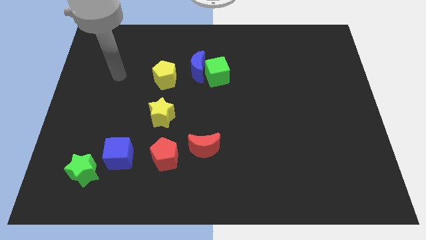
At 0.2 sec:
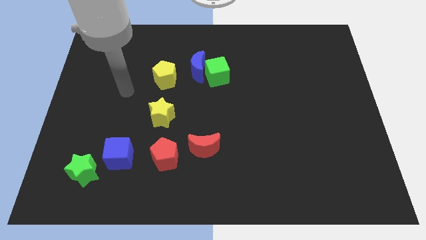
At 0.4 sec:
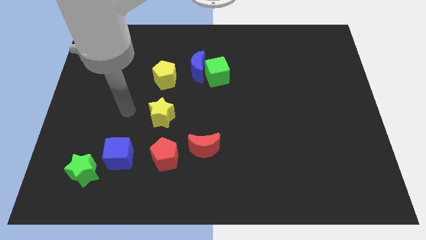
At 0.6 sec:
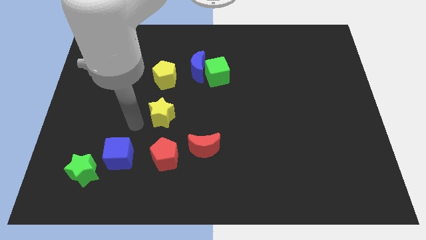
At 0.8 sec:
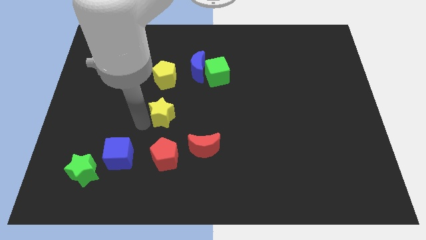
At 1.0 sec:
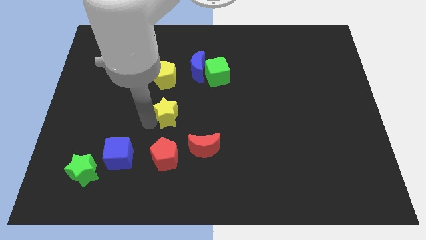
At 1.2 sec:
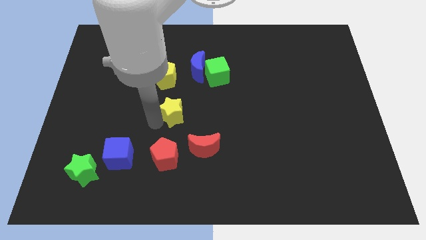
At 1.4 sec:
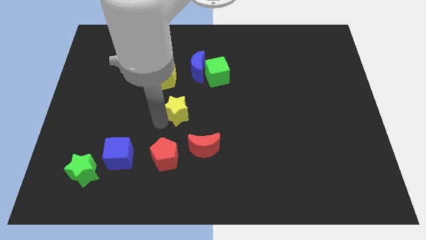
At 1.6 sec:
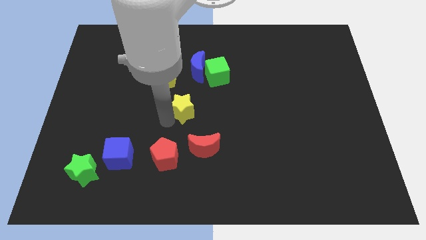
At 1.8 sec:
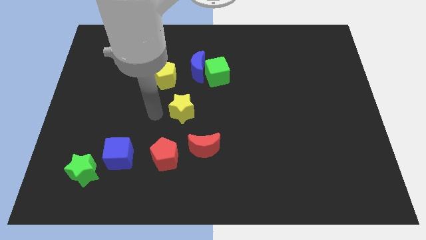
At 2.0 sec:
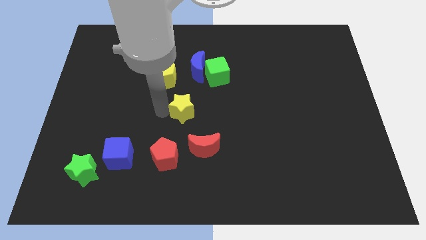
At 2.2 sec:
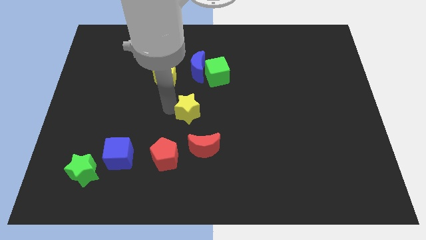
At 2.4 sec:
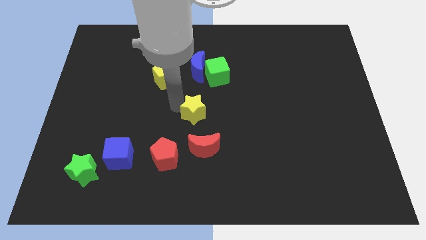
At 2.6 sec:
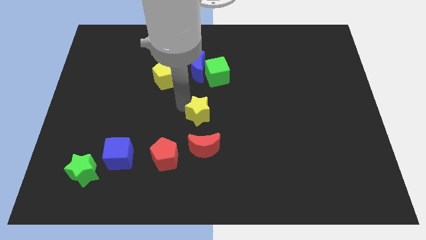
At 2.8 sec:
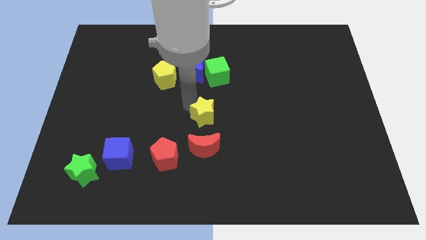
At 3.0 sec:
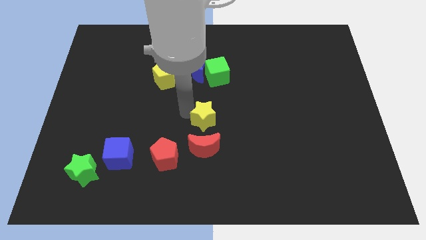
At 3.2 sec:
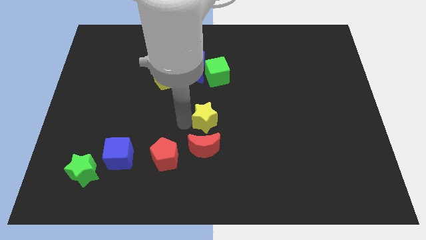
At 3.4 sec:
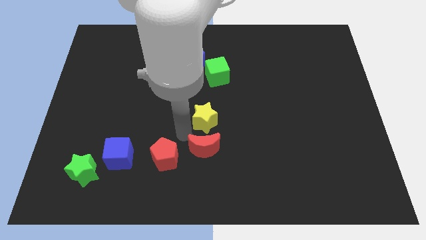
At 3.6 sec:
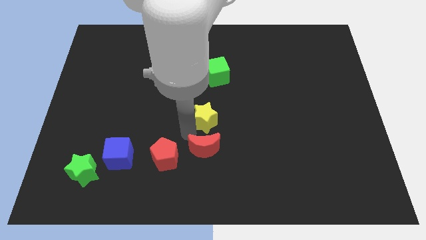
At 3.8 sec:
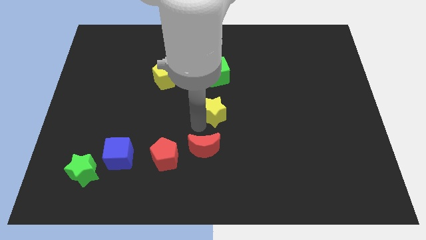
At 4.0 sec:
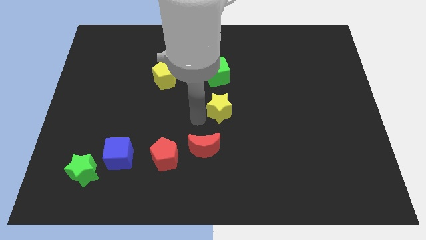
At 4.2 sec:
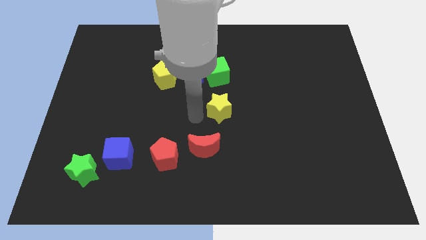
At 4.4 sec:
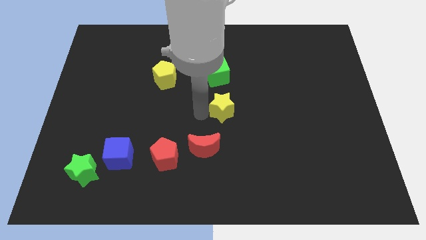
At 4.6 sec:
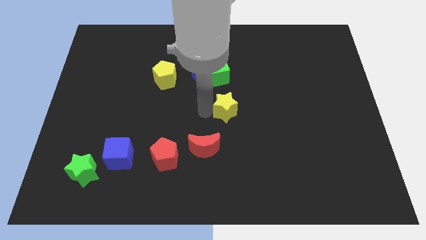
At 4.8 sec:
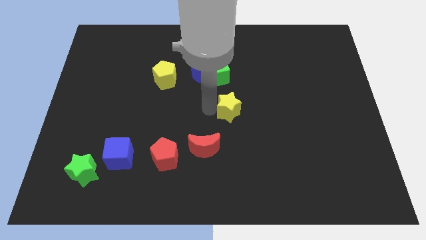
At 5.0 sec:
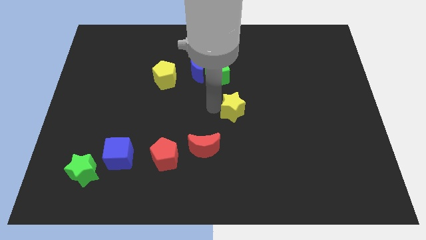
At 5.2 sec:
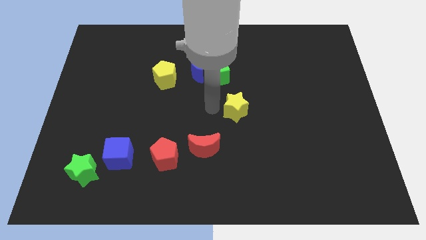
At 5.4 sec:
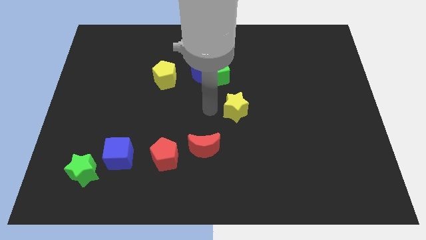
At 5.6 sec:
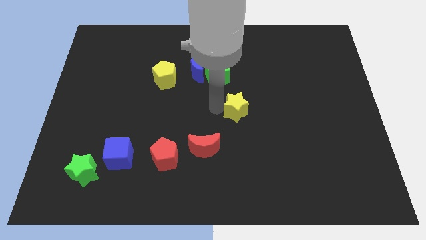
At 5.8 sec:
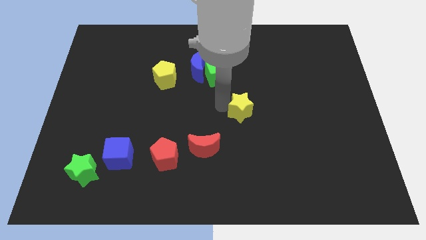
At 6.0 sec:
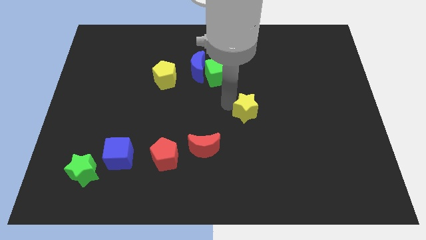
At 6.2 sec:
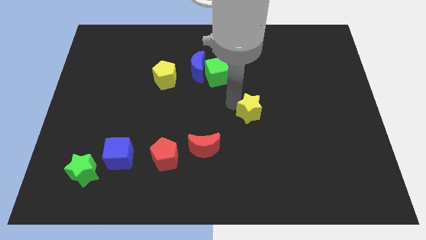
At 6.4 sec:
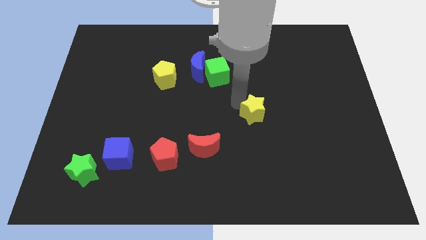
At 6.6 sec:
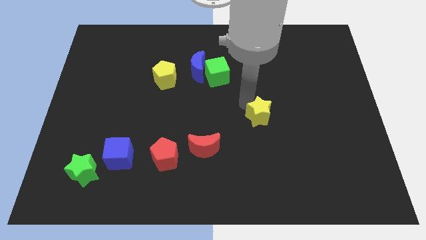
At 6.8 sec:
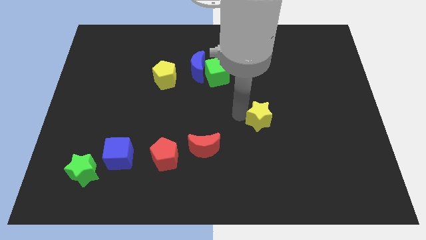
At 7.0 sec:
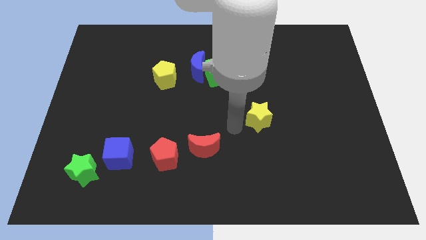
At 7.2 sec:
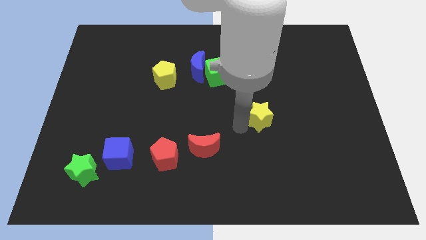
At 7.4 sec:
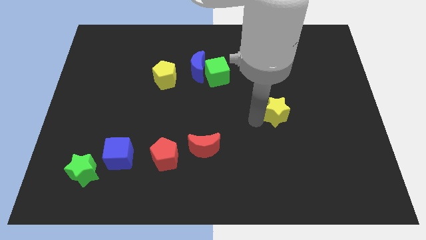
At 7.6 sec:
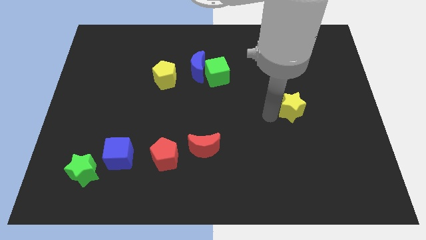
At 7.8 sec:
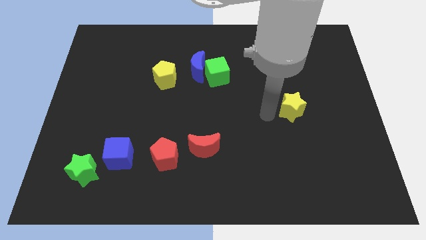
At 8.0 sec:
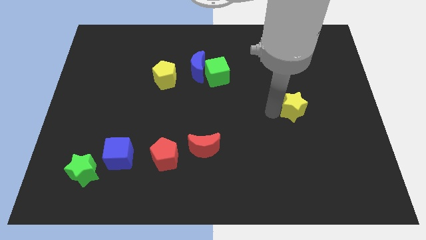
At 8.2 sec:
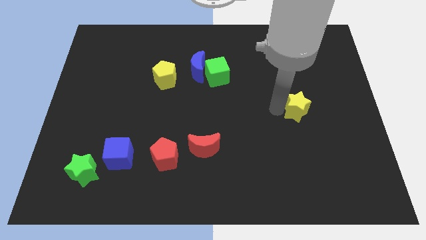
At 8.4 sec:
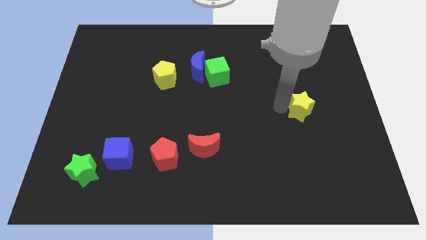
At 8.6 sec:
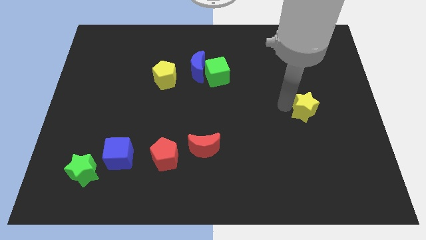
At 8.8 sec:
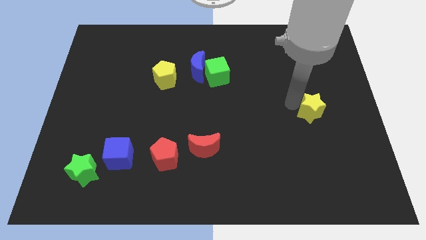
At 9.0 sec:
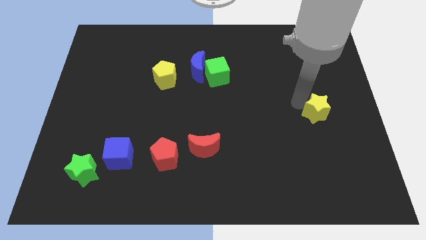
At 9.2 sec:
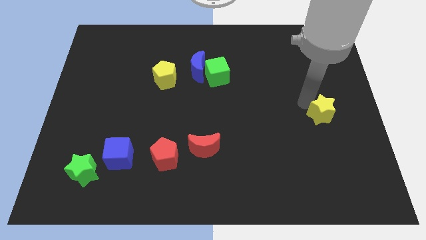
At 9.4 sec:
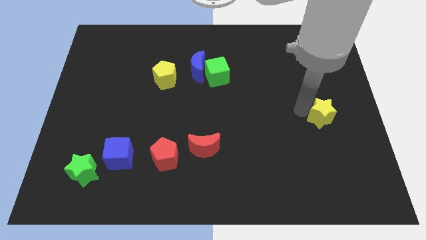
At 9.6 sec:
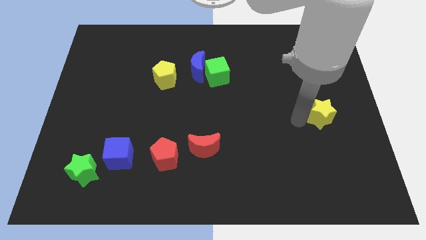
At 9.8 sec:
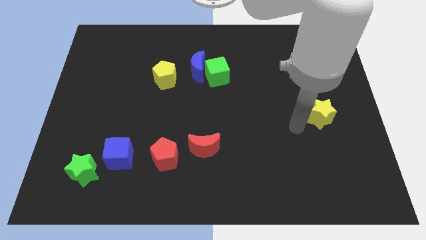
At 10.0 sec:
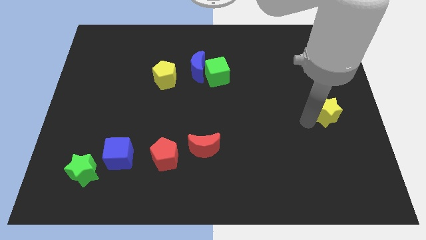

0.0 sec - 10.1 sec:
put the yellow star to the right side of the board

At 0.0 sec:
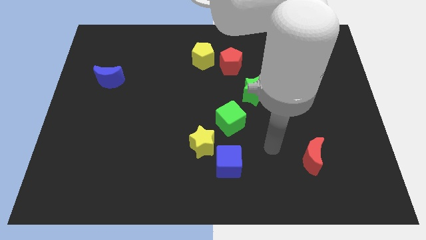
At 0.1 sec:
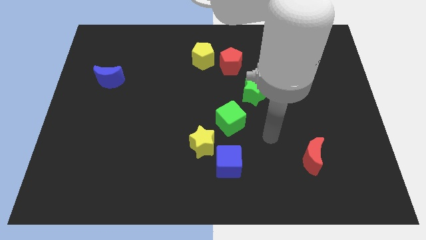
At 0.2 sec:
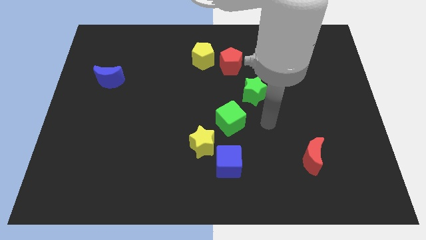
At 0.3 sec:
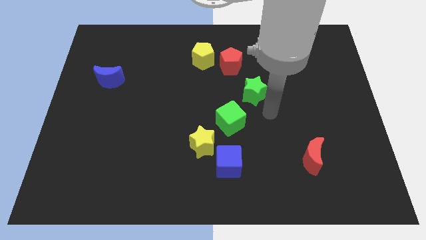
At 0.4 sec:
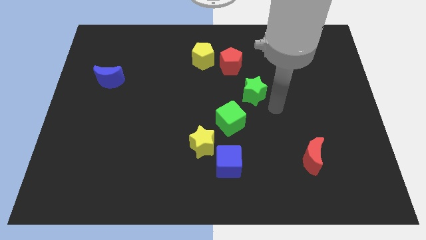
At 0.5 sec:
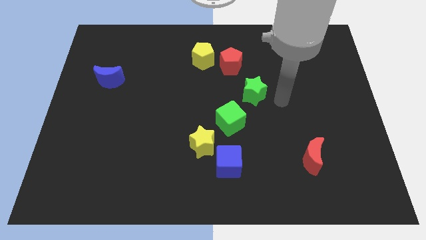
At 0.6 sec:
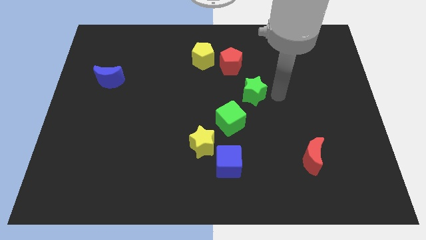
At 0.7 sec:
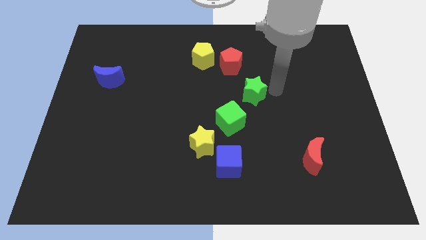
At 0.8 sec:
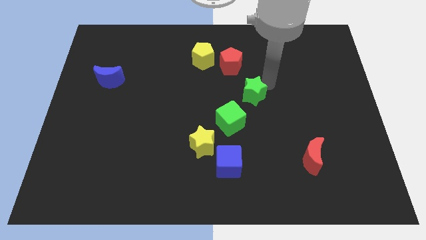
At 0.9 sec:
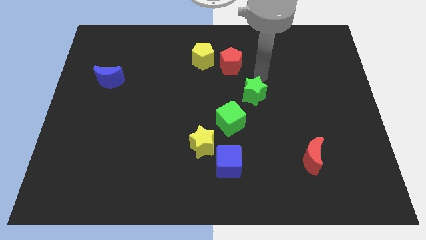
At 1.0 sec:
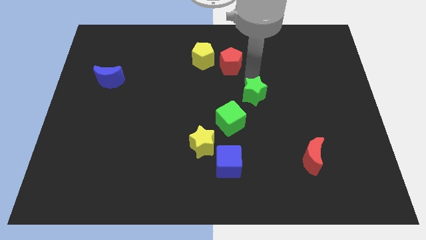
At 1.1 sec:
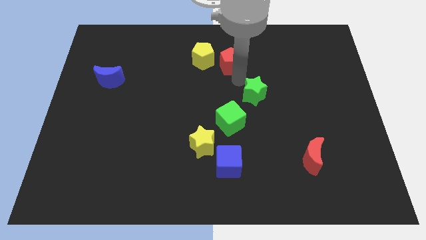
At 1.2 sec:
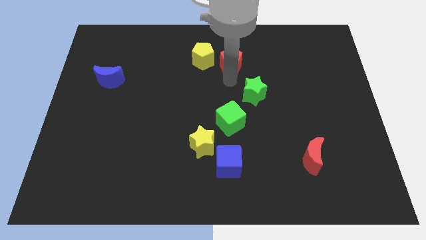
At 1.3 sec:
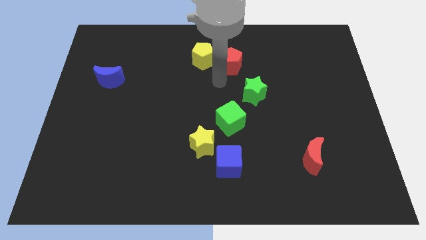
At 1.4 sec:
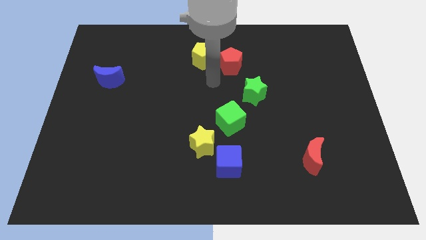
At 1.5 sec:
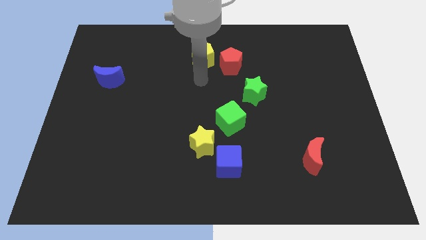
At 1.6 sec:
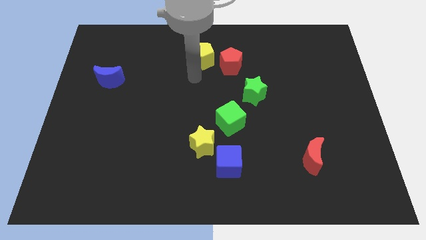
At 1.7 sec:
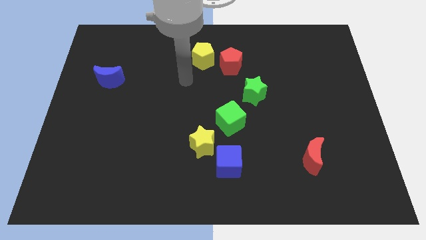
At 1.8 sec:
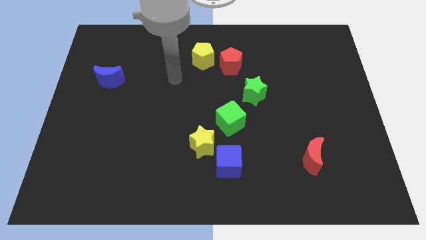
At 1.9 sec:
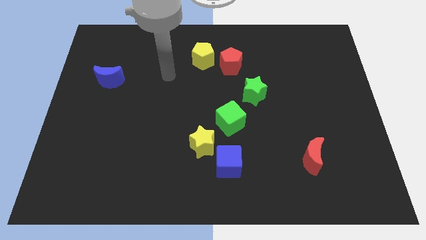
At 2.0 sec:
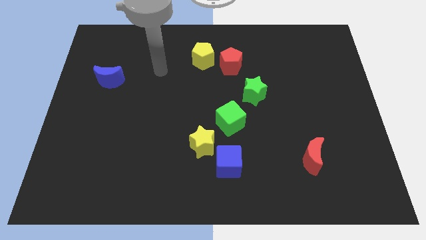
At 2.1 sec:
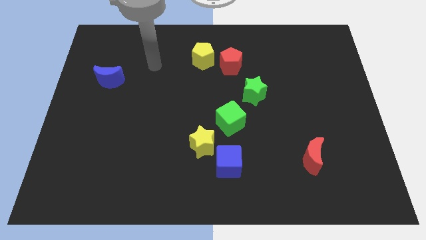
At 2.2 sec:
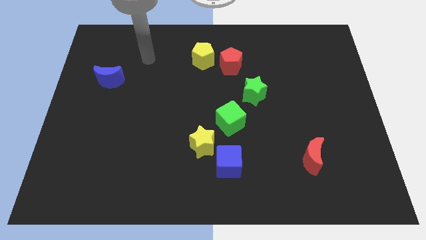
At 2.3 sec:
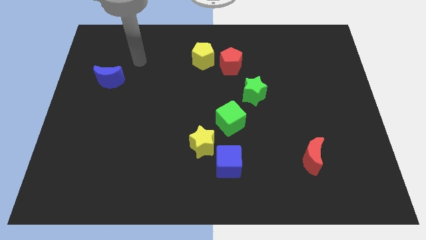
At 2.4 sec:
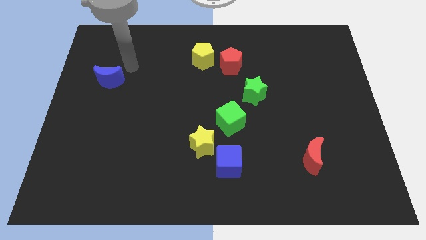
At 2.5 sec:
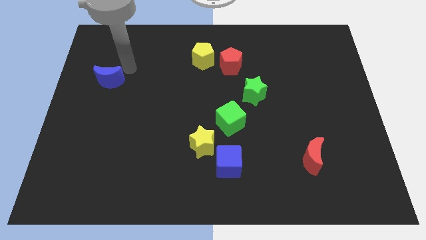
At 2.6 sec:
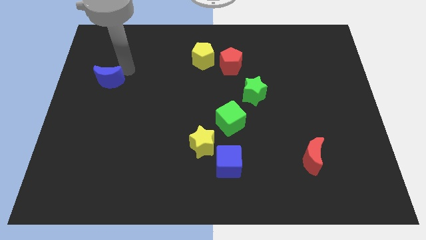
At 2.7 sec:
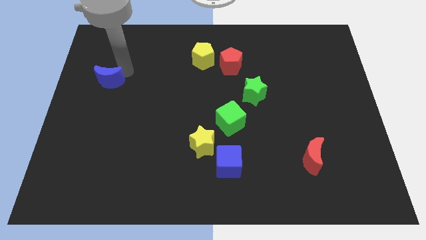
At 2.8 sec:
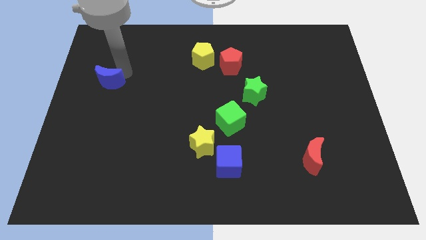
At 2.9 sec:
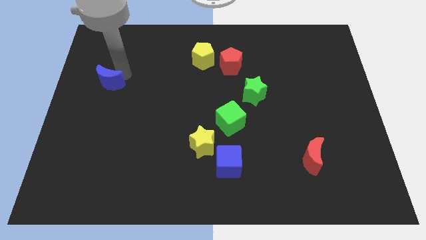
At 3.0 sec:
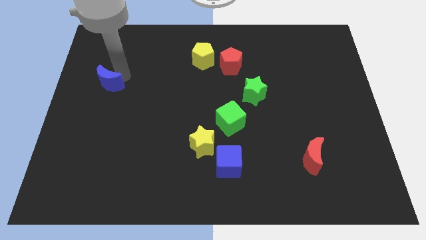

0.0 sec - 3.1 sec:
move the blue moon to the center left
